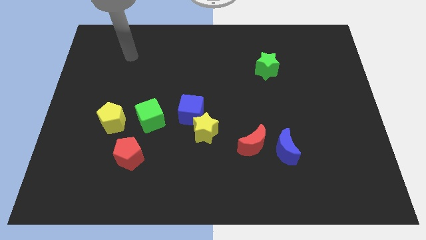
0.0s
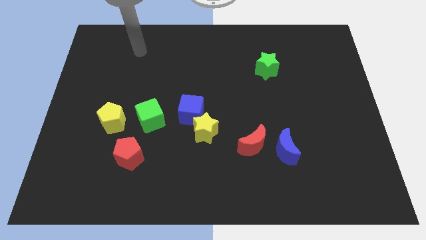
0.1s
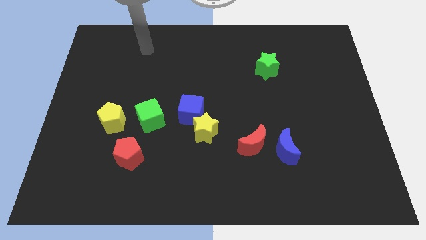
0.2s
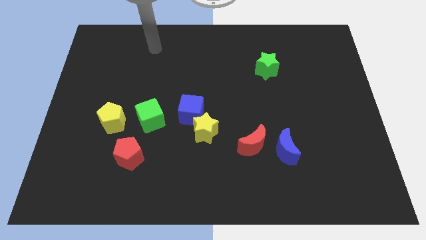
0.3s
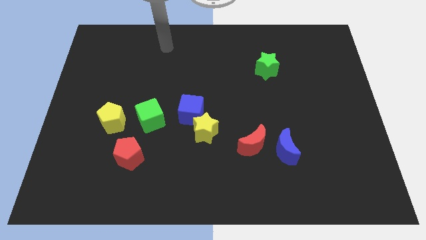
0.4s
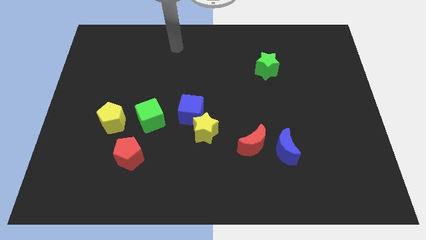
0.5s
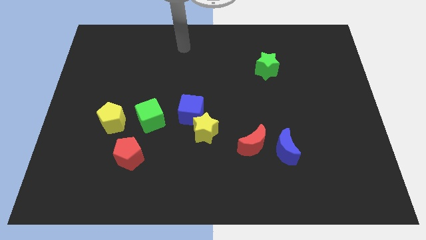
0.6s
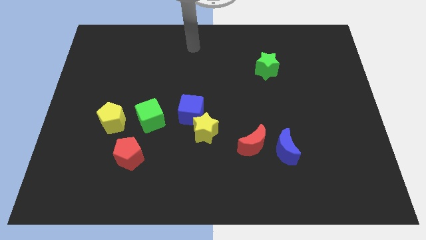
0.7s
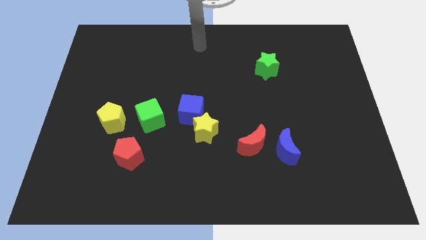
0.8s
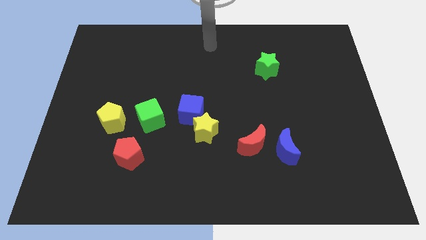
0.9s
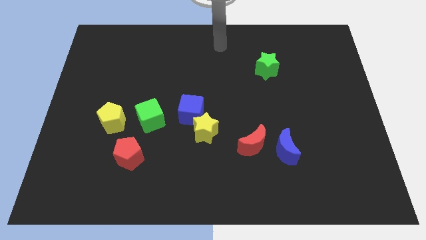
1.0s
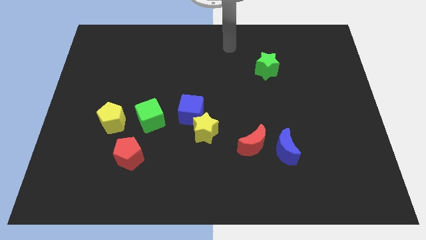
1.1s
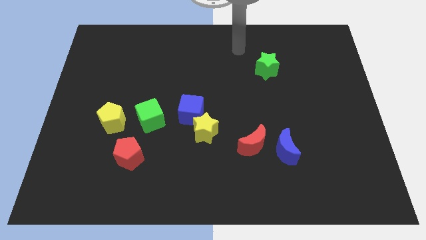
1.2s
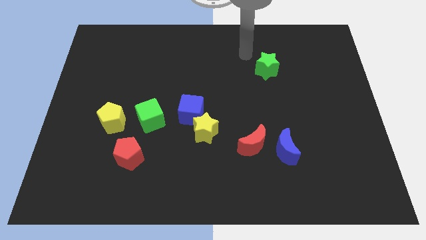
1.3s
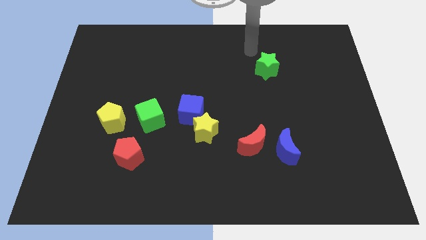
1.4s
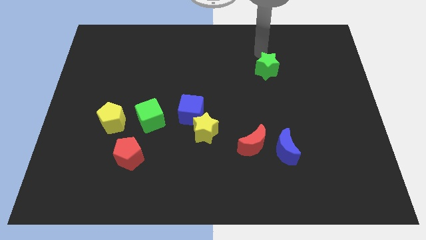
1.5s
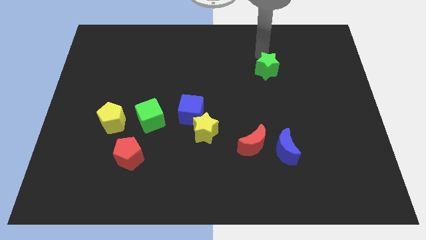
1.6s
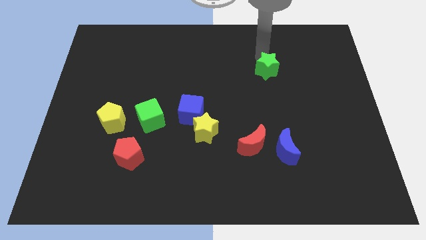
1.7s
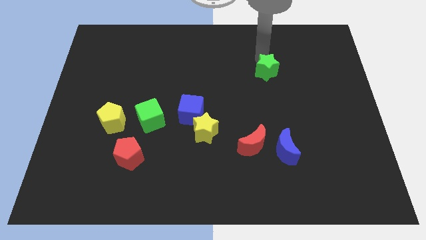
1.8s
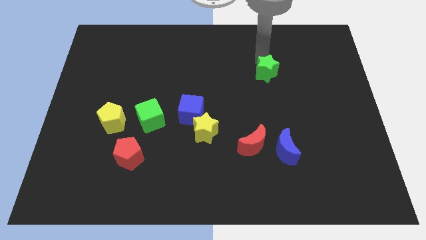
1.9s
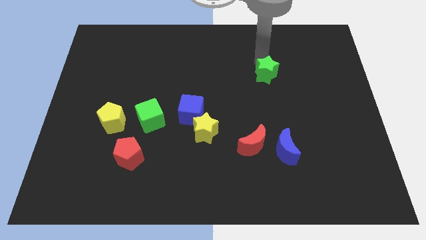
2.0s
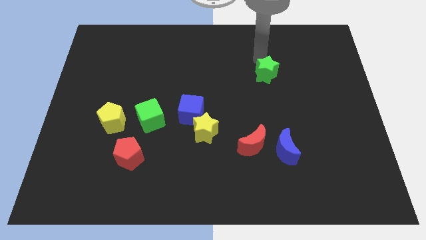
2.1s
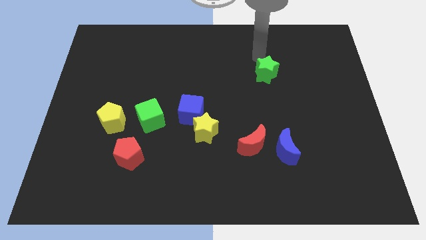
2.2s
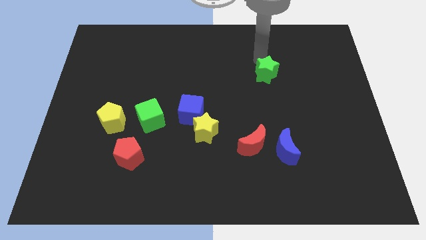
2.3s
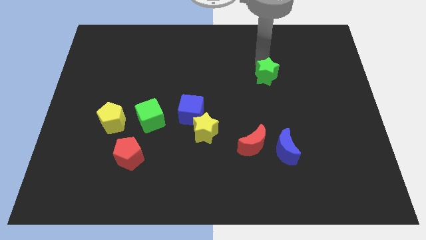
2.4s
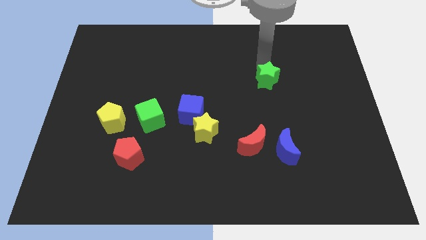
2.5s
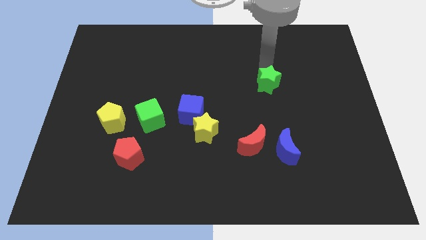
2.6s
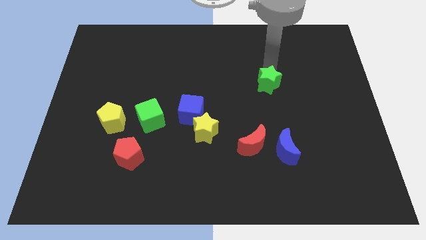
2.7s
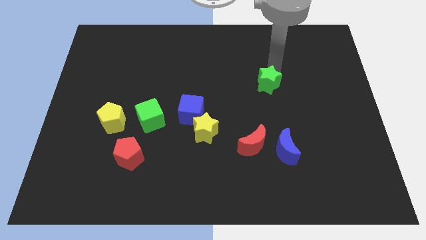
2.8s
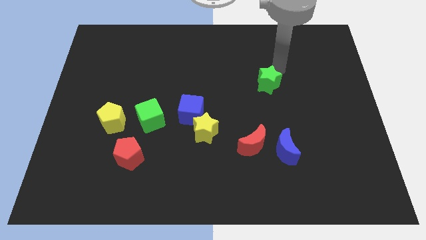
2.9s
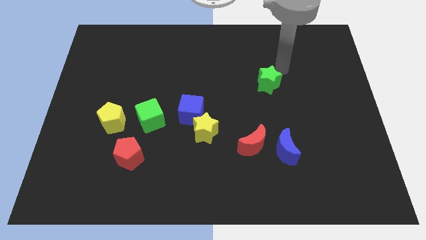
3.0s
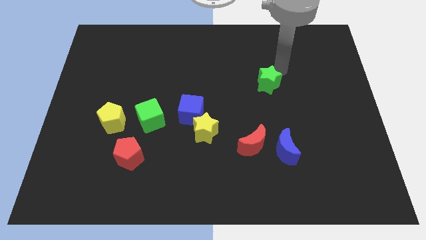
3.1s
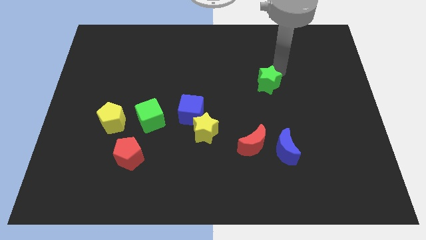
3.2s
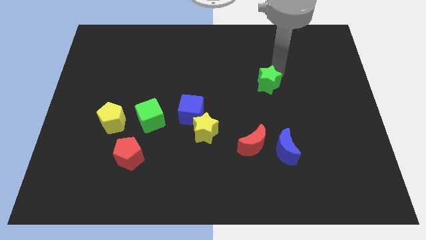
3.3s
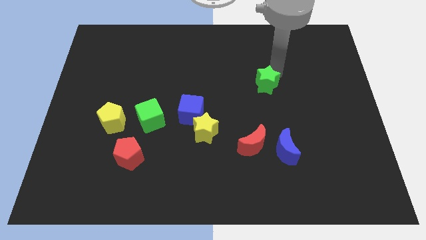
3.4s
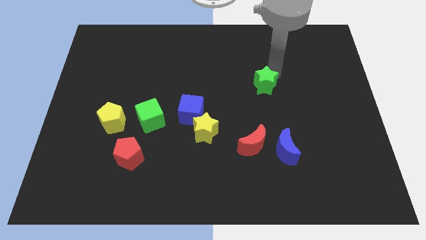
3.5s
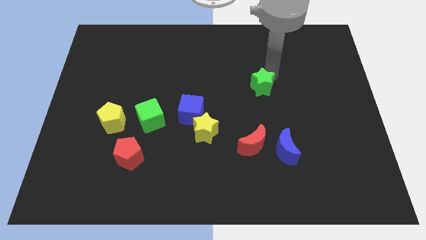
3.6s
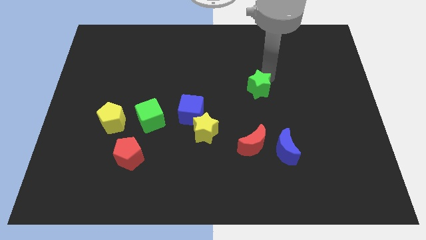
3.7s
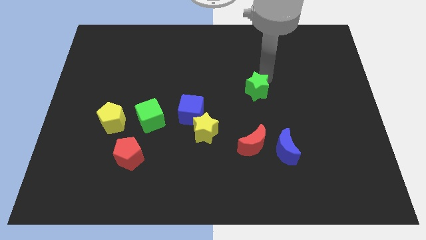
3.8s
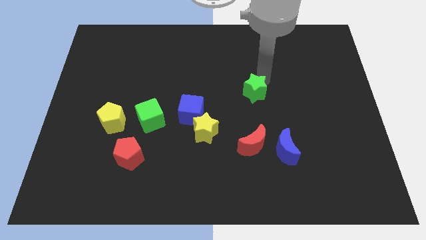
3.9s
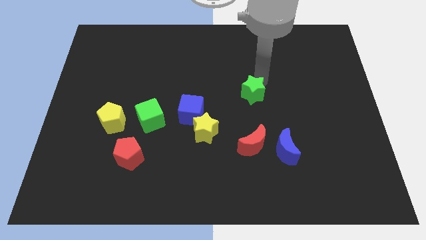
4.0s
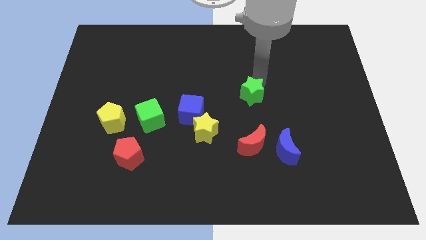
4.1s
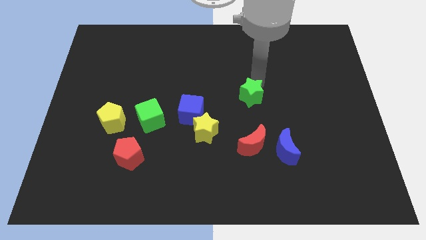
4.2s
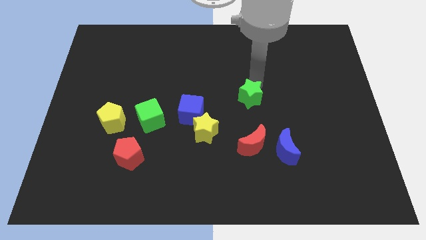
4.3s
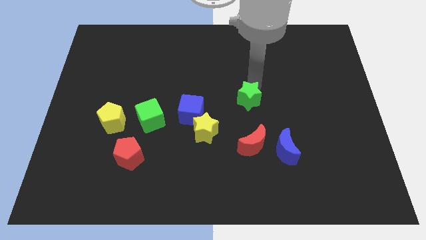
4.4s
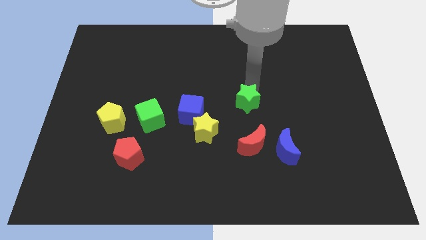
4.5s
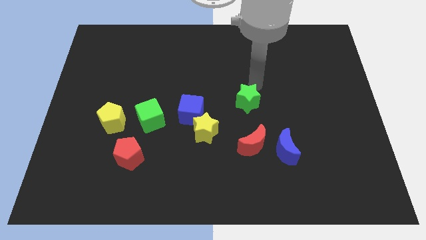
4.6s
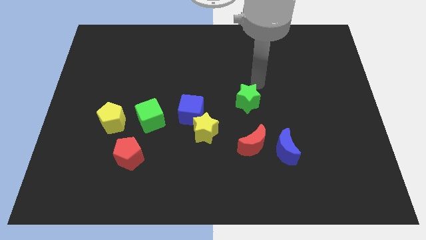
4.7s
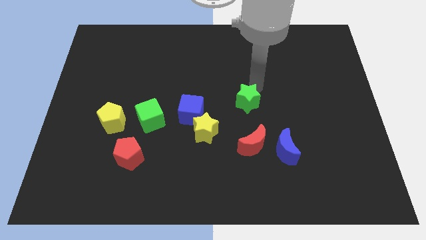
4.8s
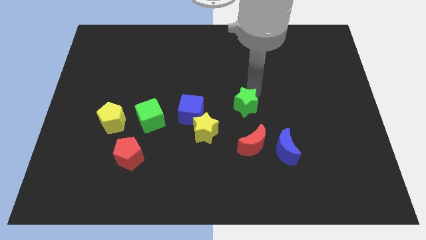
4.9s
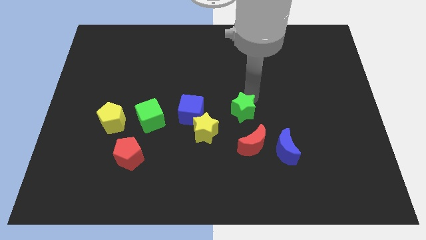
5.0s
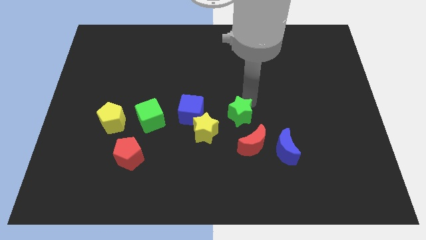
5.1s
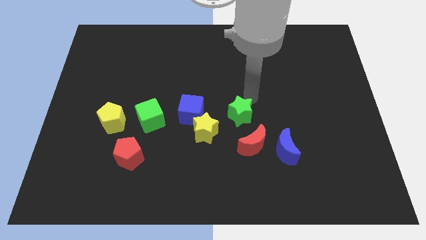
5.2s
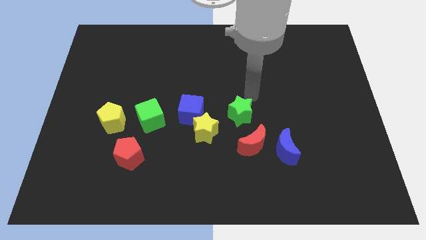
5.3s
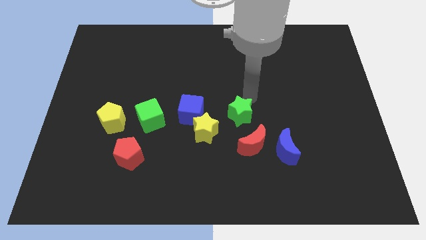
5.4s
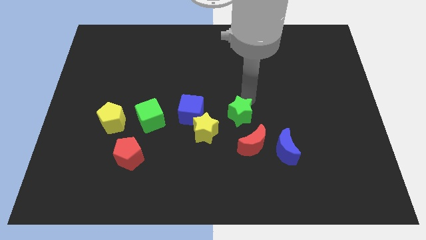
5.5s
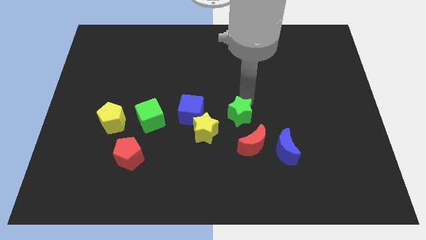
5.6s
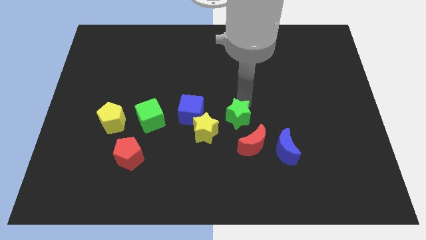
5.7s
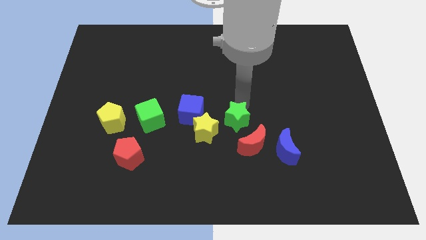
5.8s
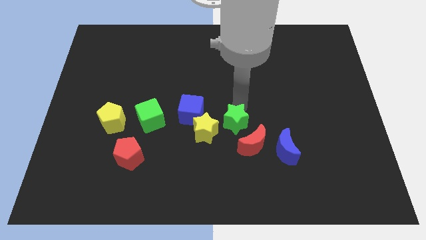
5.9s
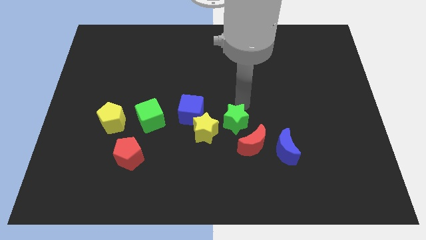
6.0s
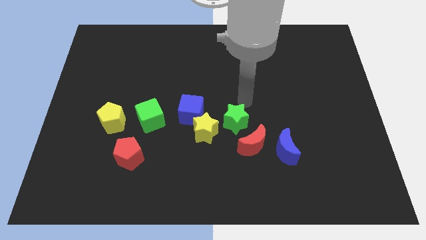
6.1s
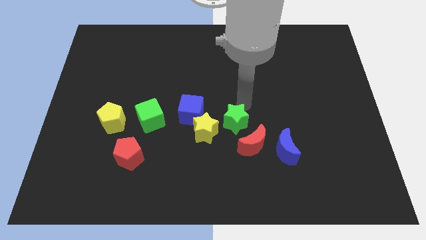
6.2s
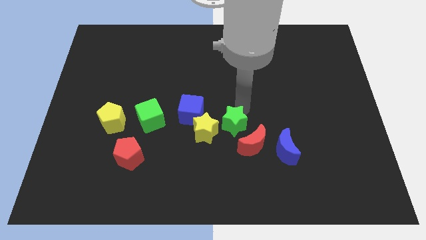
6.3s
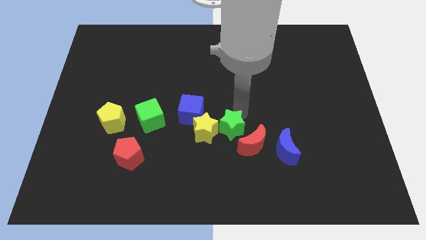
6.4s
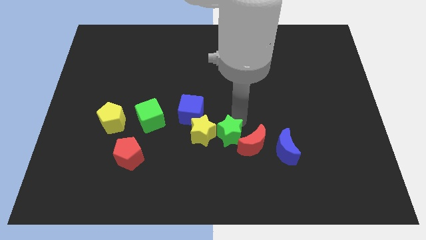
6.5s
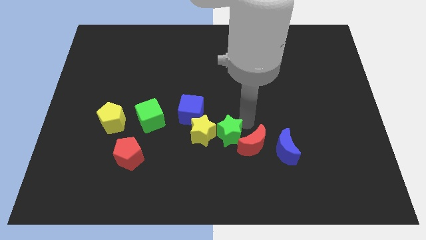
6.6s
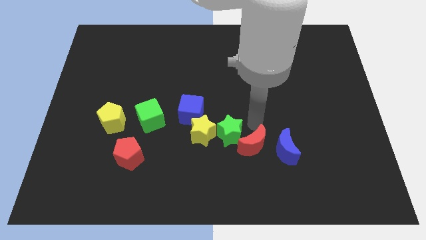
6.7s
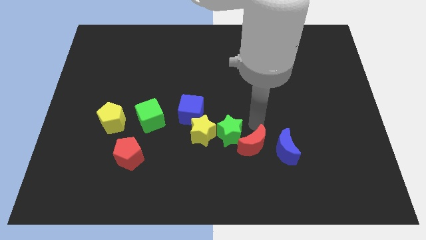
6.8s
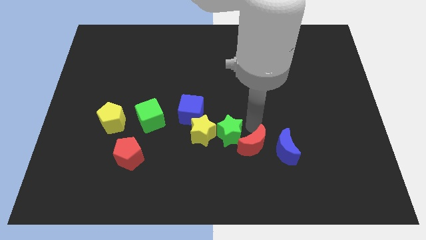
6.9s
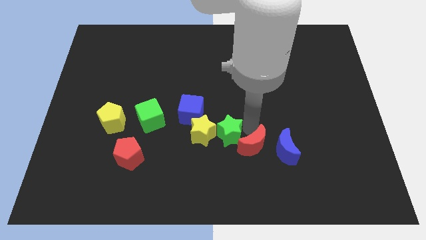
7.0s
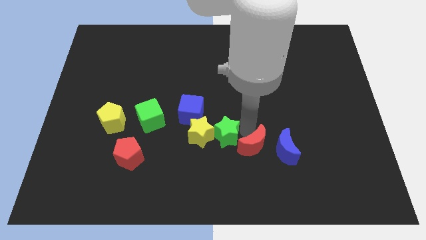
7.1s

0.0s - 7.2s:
slide the green star down and left diagonally

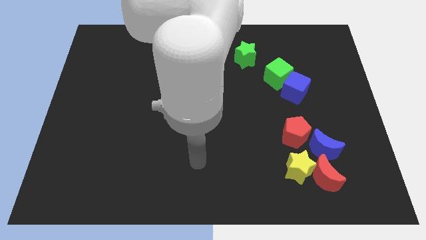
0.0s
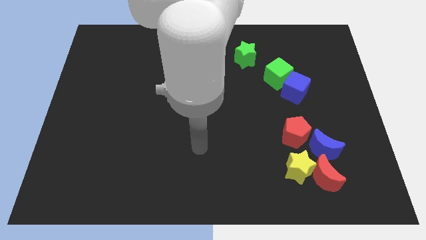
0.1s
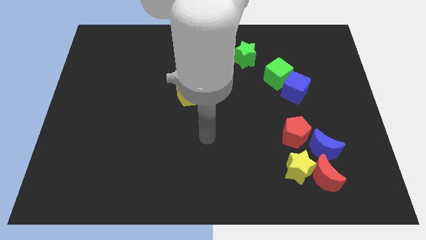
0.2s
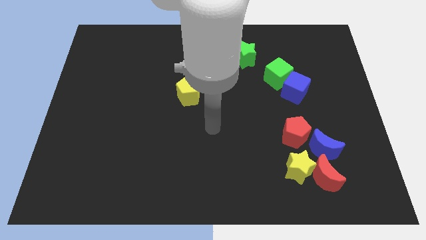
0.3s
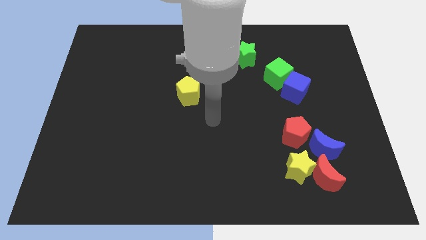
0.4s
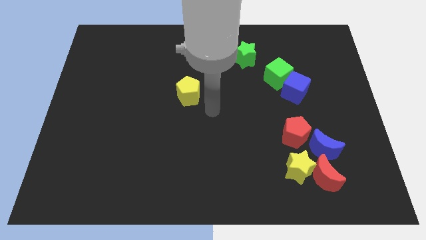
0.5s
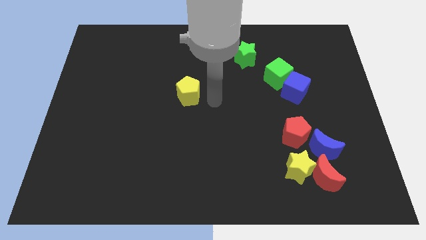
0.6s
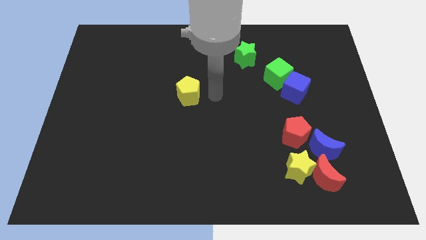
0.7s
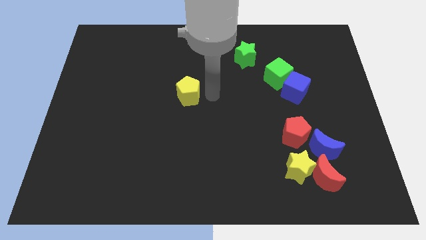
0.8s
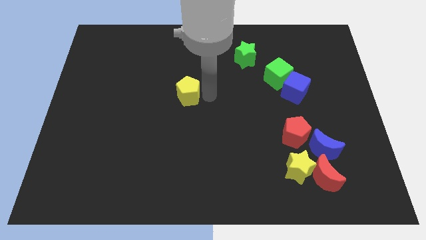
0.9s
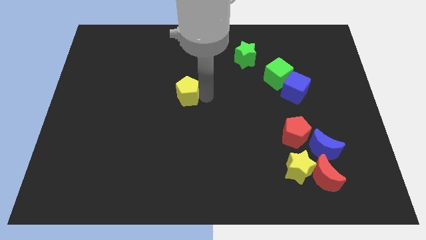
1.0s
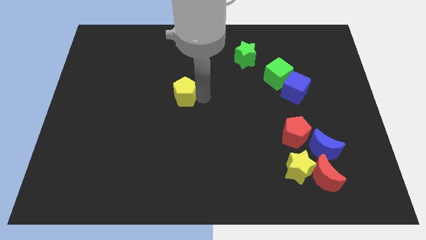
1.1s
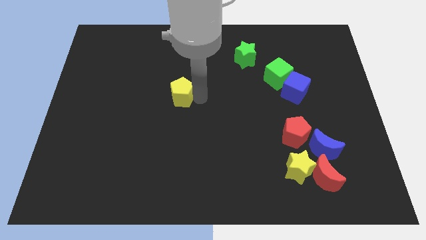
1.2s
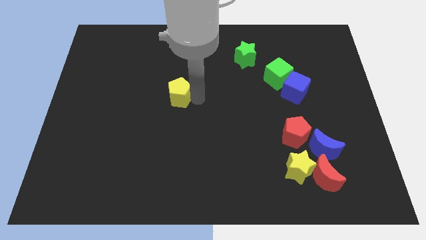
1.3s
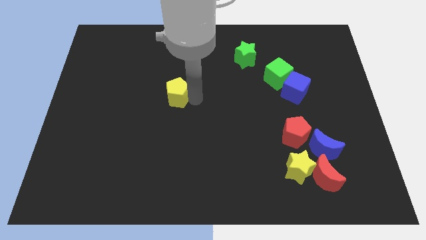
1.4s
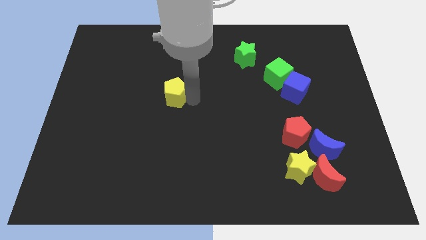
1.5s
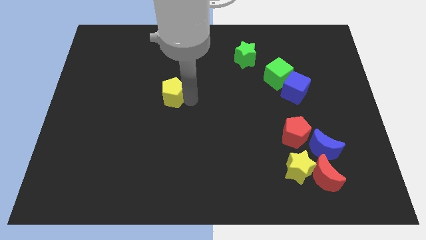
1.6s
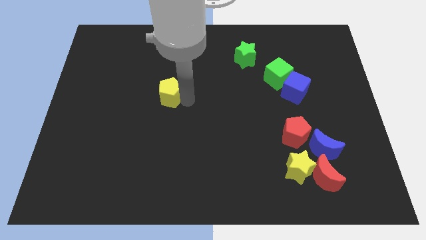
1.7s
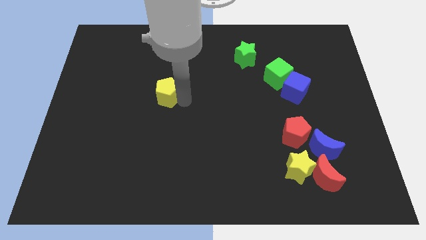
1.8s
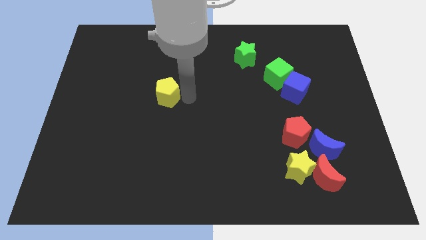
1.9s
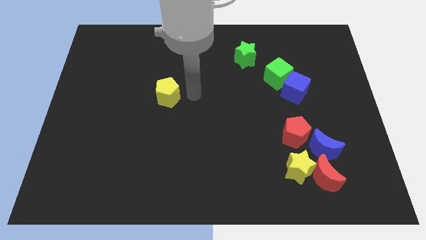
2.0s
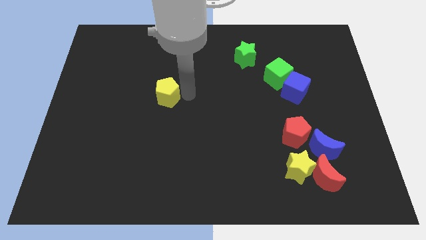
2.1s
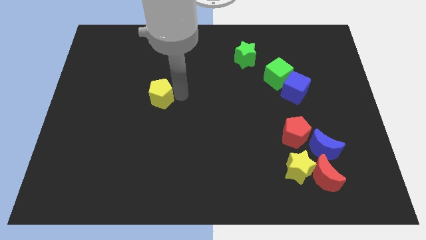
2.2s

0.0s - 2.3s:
slightly move the yellow pentagon to the left
